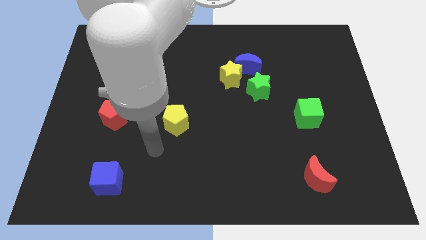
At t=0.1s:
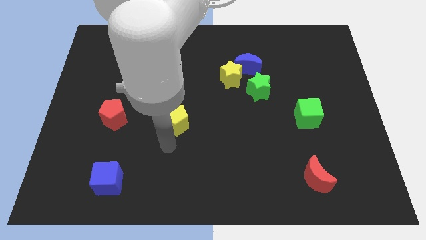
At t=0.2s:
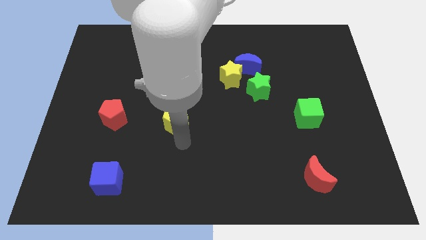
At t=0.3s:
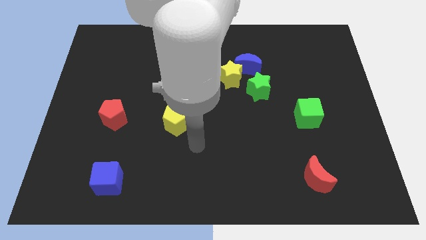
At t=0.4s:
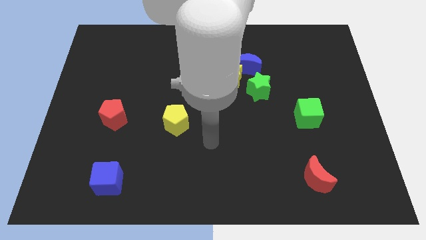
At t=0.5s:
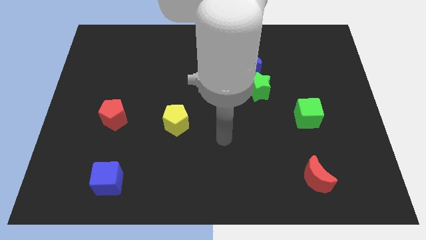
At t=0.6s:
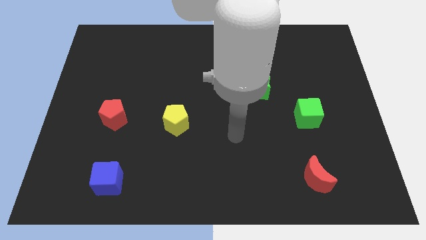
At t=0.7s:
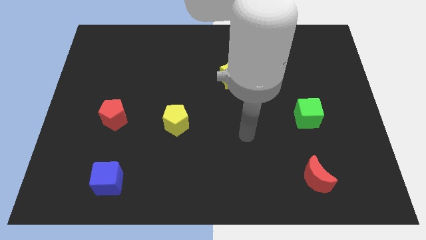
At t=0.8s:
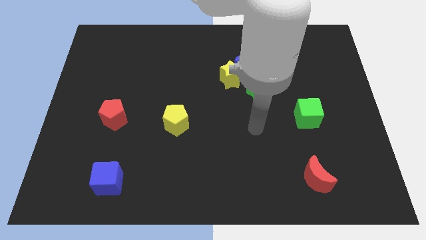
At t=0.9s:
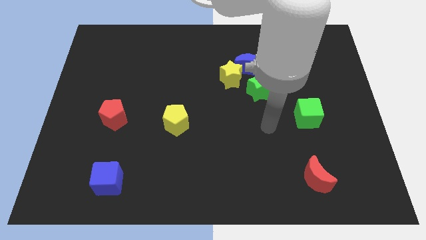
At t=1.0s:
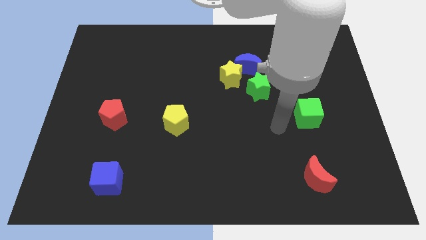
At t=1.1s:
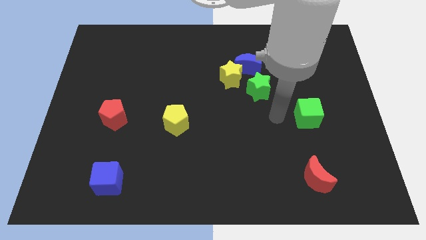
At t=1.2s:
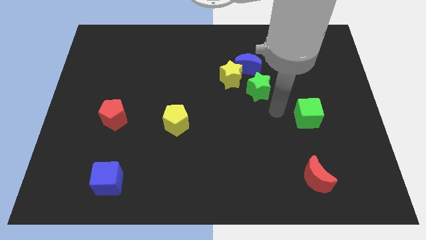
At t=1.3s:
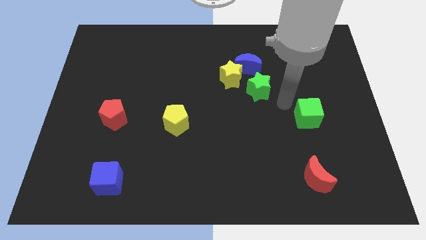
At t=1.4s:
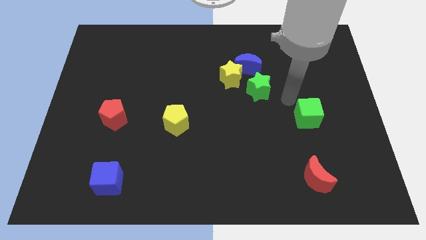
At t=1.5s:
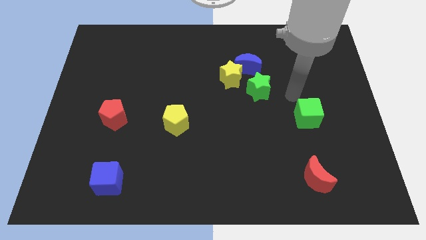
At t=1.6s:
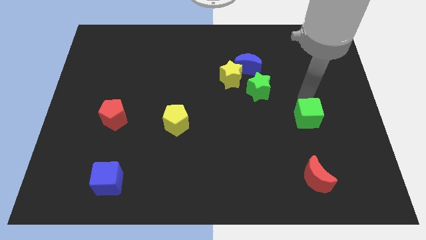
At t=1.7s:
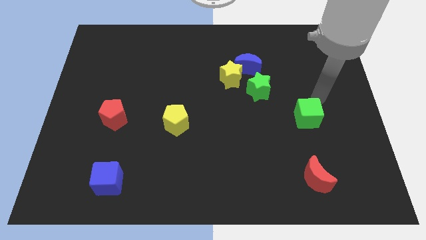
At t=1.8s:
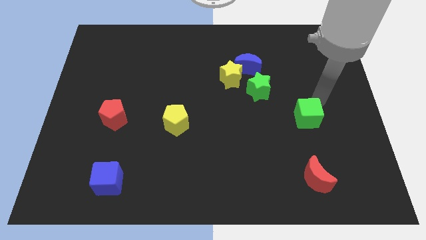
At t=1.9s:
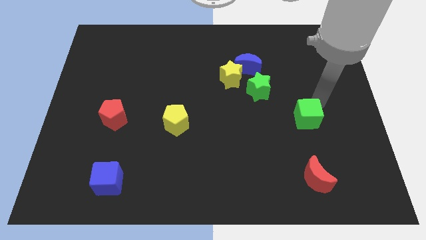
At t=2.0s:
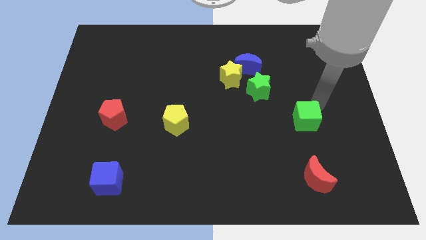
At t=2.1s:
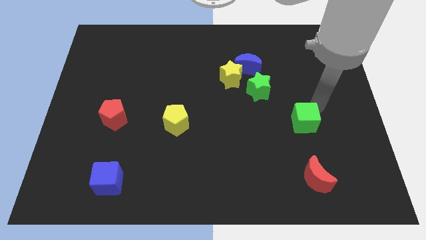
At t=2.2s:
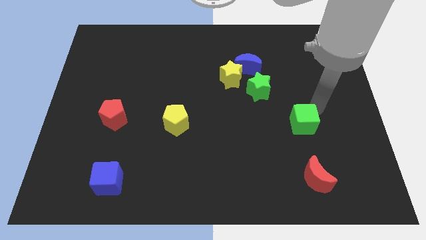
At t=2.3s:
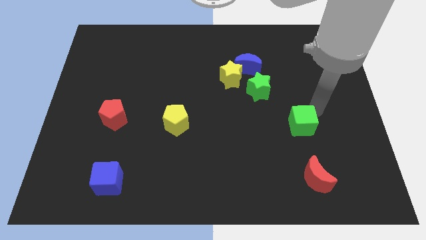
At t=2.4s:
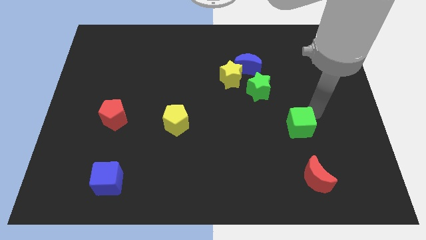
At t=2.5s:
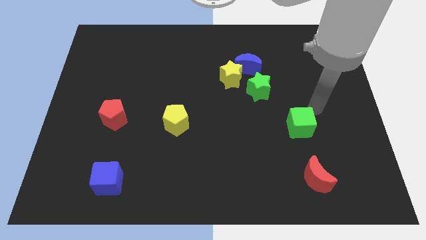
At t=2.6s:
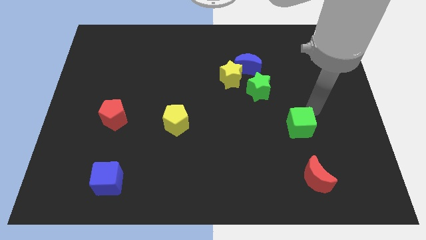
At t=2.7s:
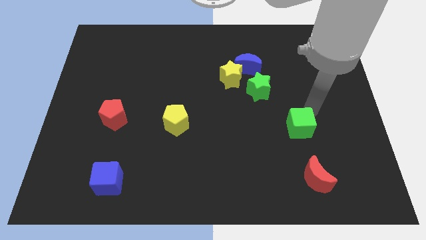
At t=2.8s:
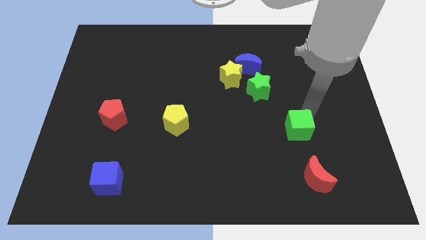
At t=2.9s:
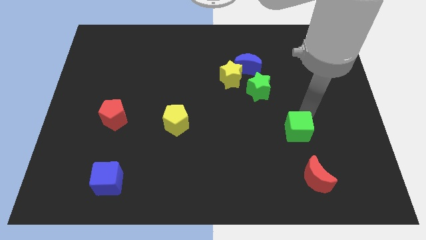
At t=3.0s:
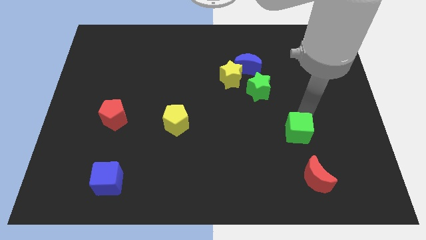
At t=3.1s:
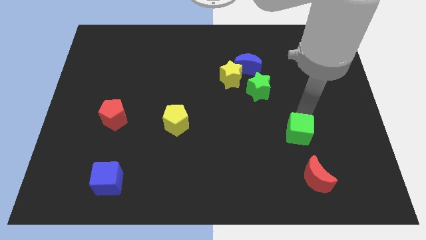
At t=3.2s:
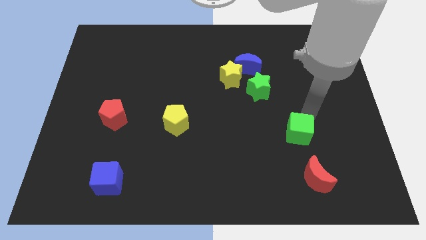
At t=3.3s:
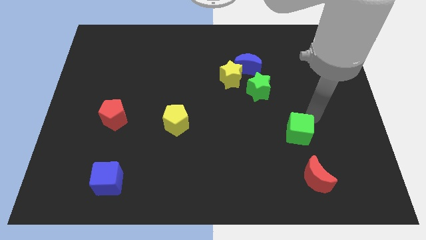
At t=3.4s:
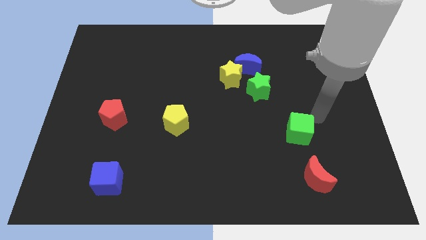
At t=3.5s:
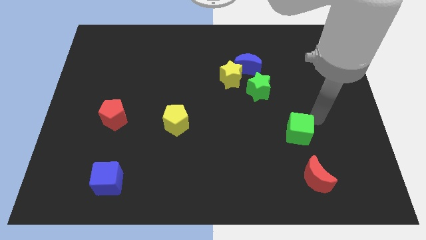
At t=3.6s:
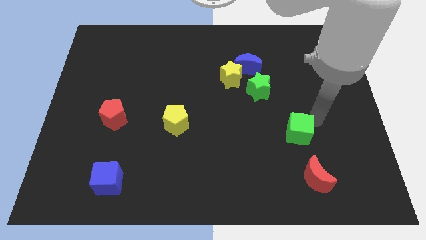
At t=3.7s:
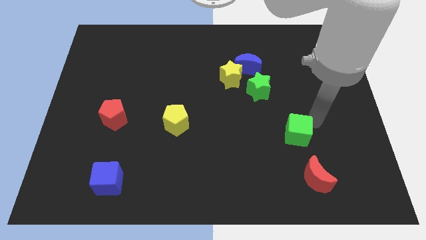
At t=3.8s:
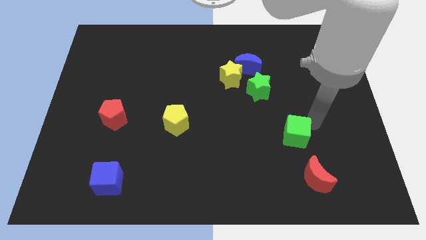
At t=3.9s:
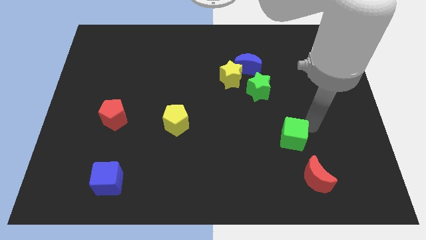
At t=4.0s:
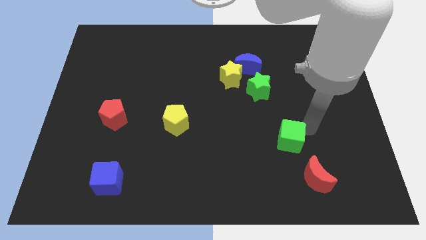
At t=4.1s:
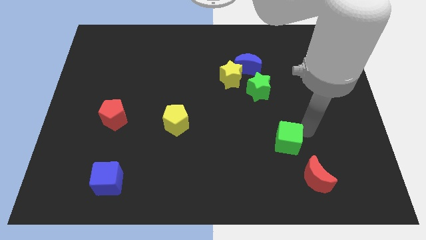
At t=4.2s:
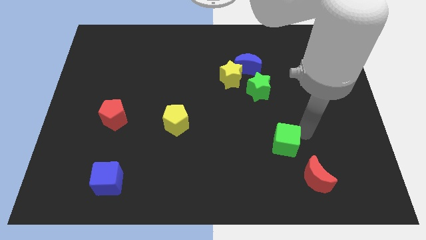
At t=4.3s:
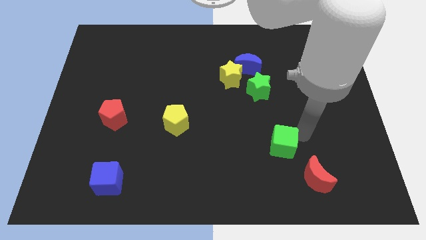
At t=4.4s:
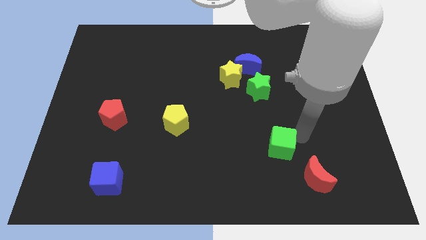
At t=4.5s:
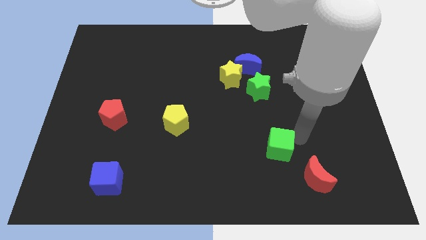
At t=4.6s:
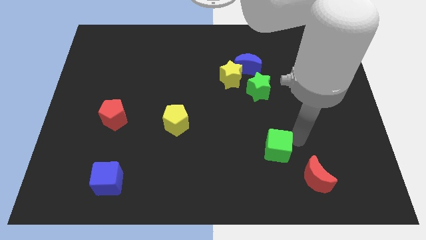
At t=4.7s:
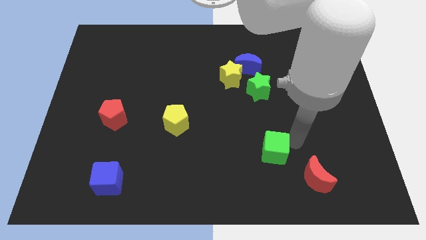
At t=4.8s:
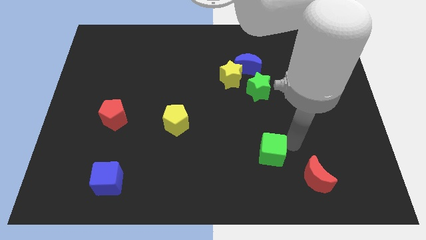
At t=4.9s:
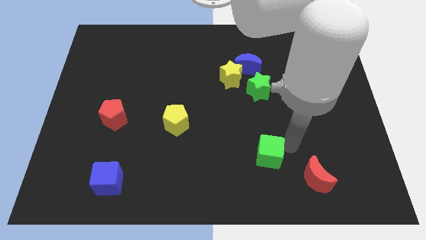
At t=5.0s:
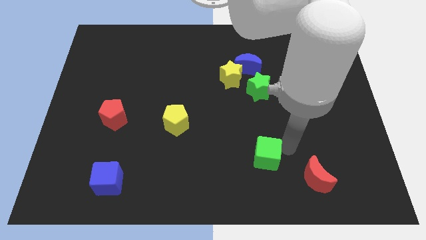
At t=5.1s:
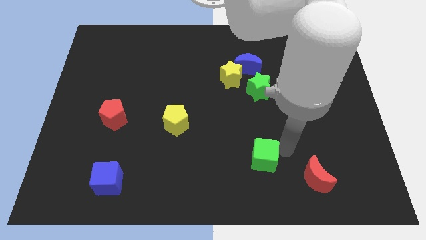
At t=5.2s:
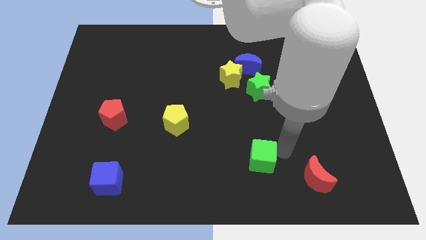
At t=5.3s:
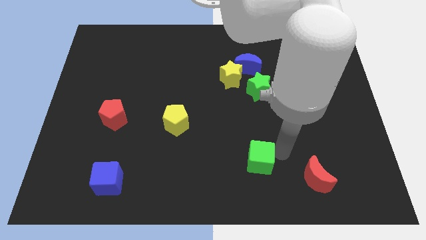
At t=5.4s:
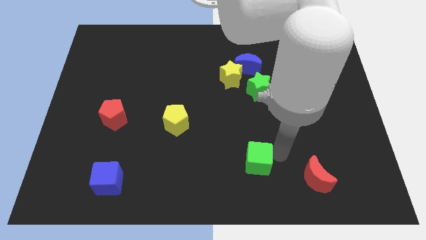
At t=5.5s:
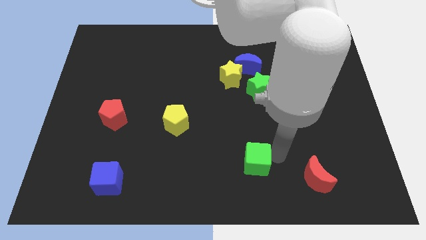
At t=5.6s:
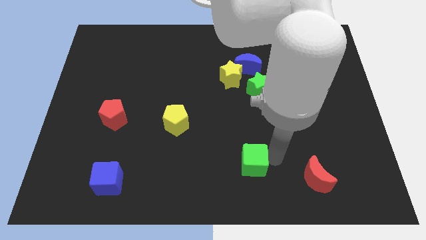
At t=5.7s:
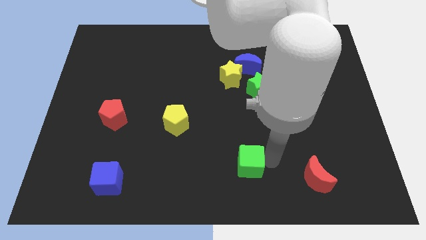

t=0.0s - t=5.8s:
slide the green cube to the bottom
